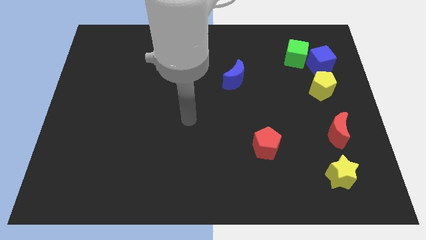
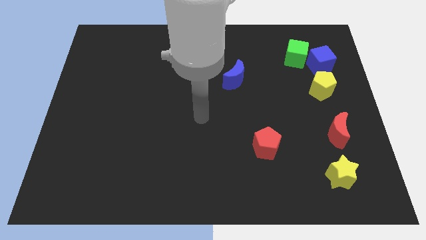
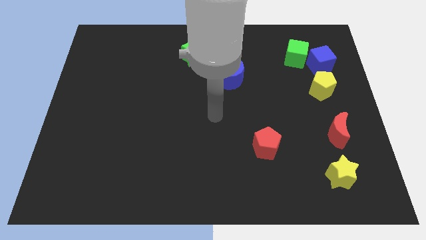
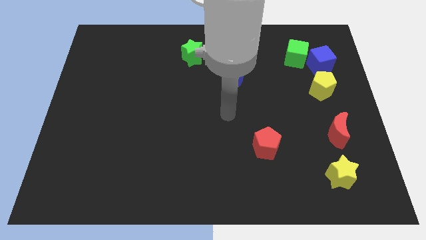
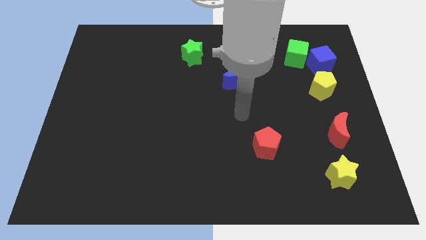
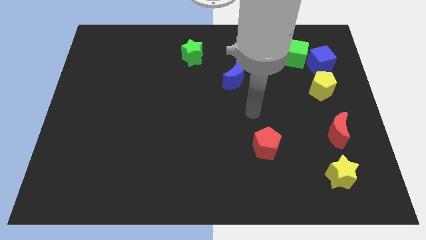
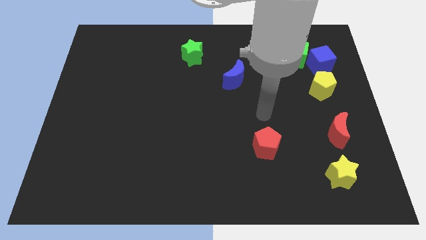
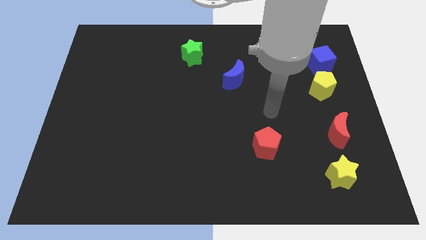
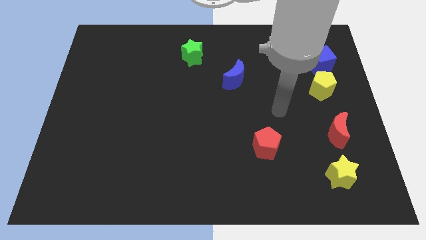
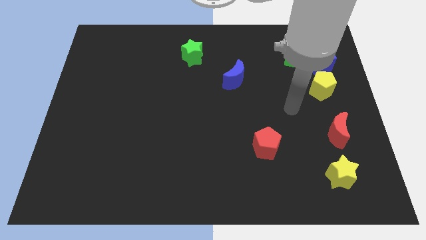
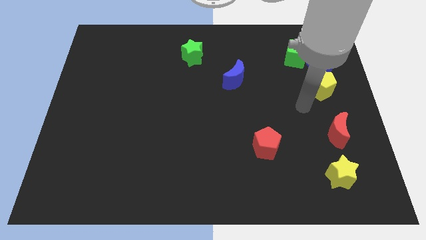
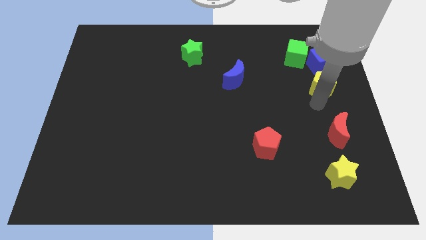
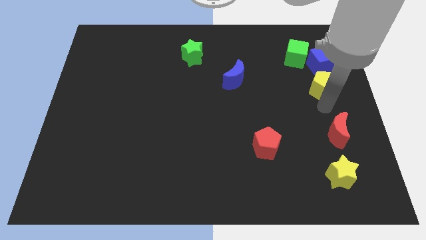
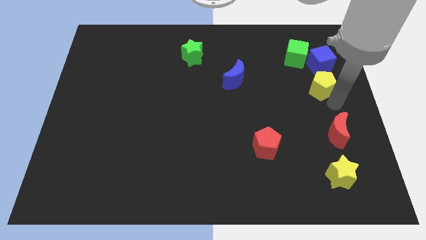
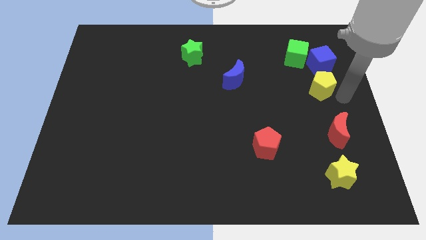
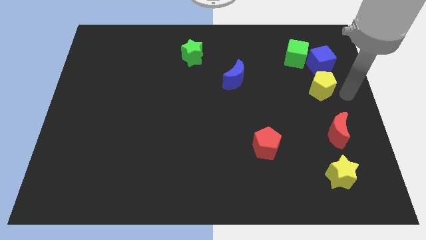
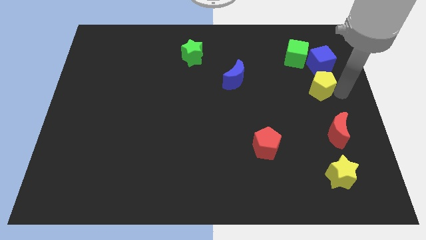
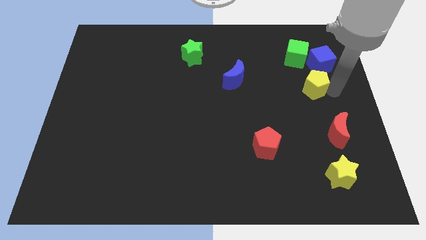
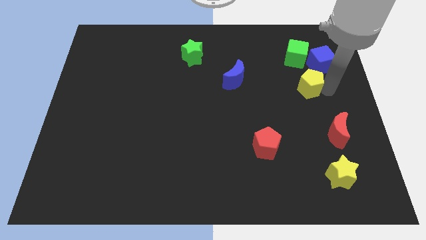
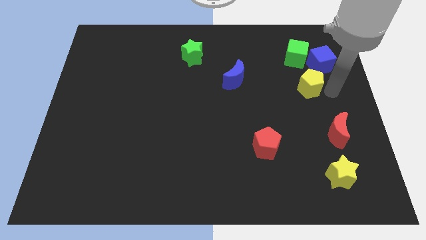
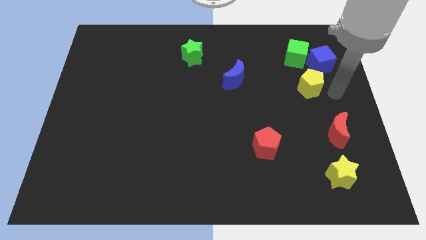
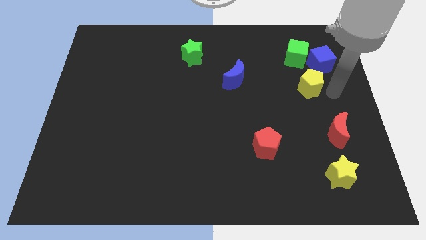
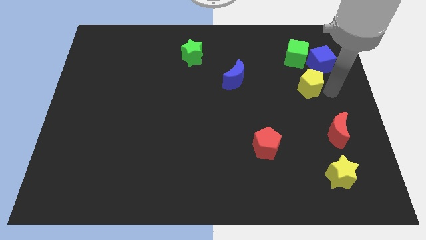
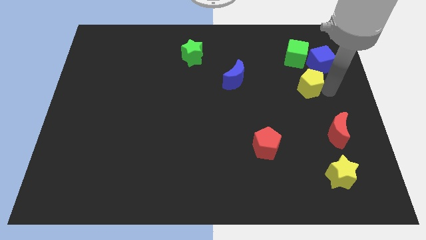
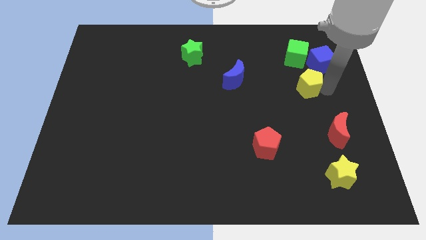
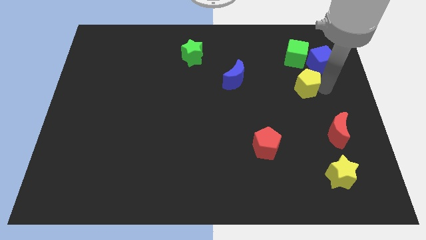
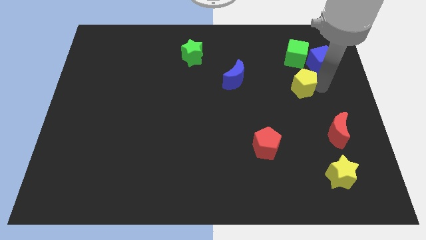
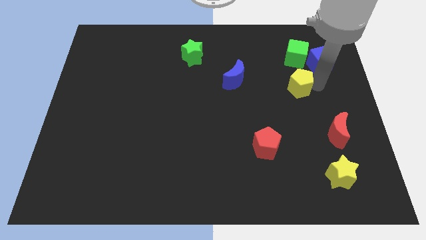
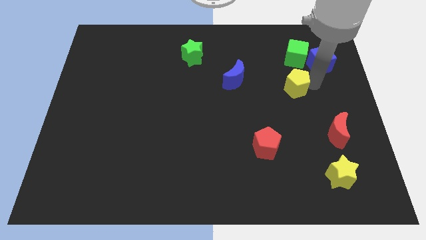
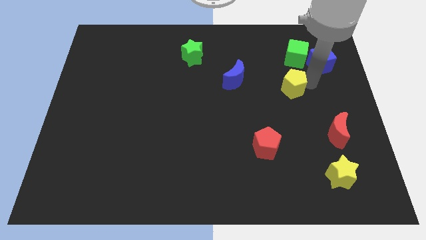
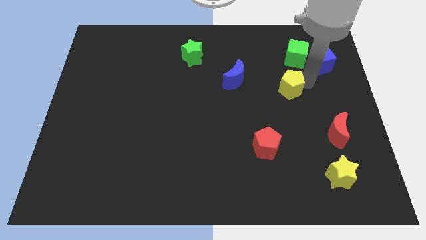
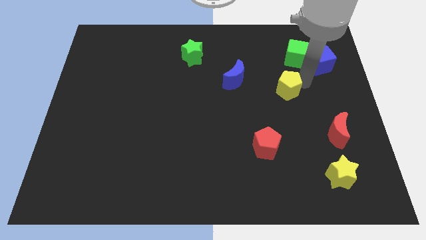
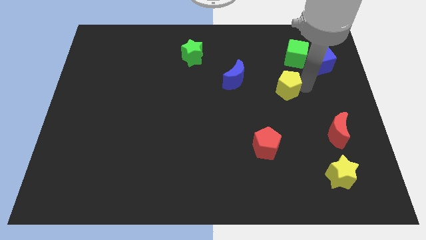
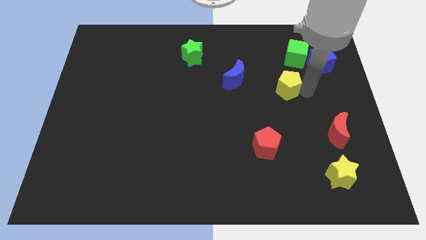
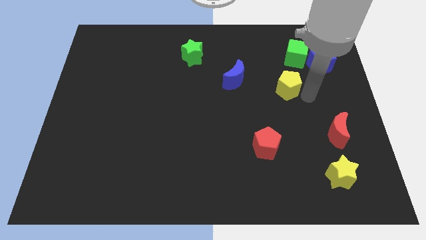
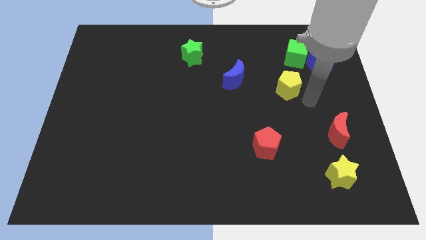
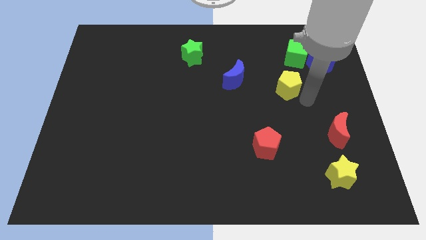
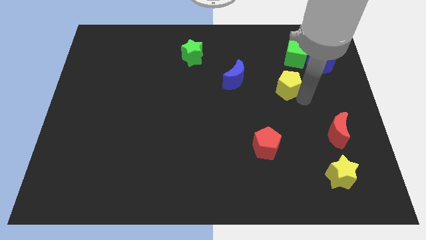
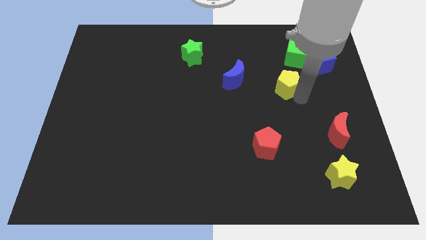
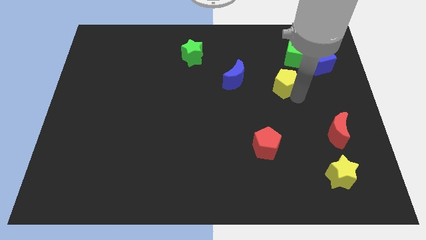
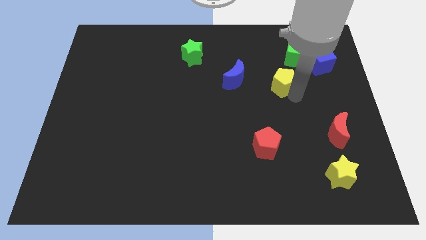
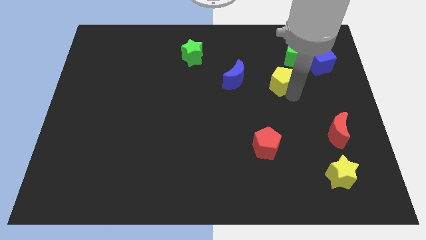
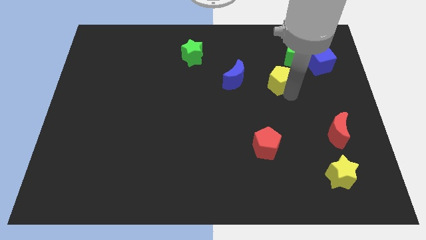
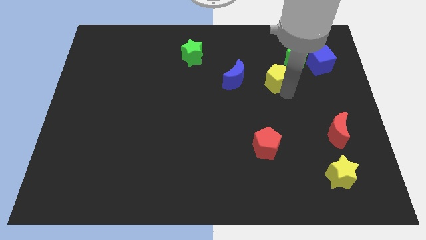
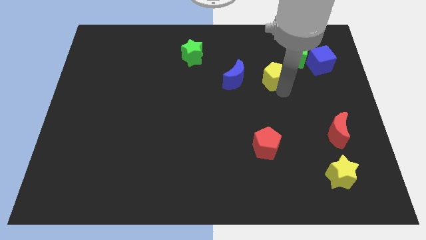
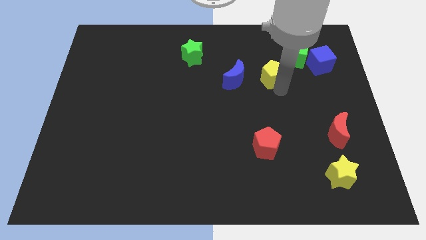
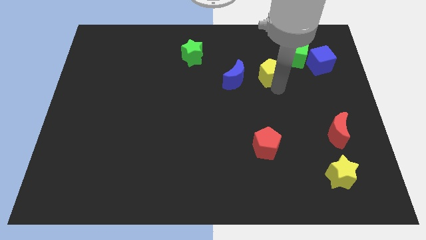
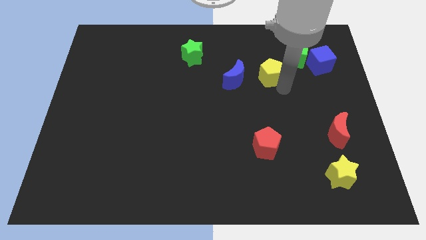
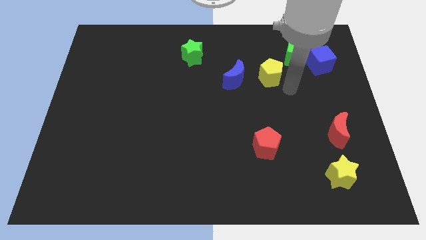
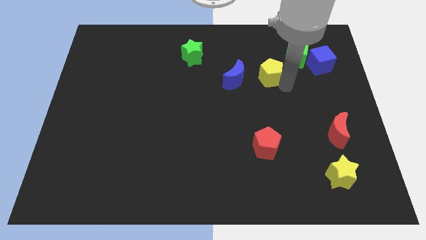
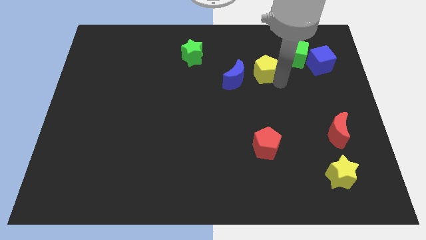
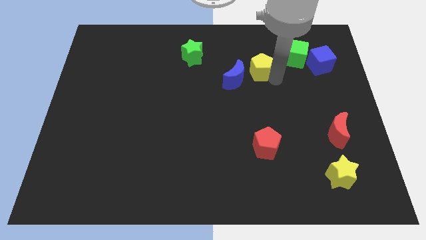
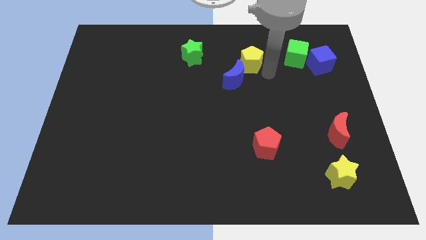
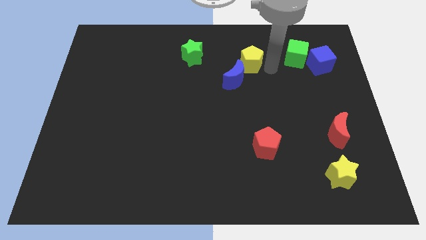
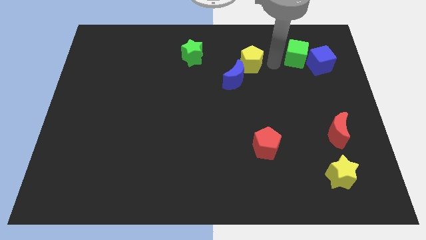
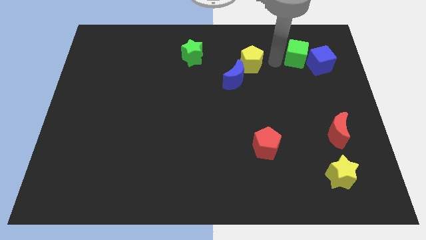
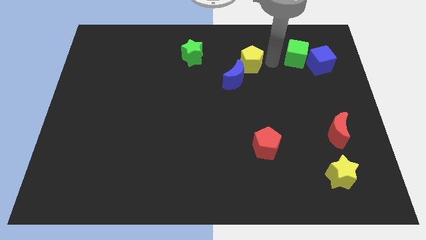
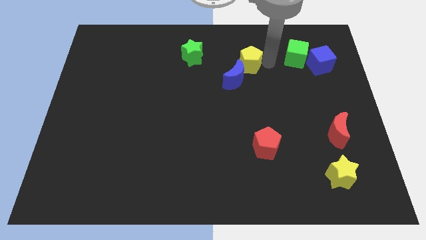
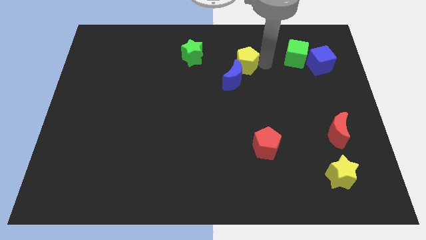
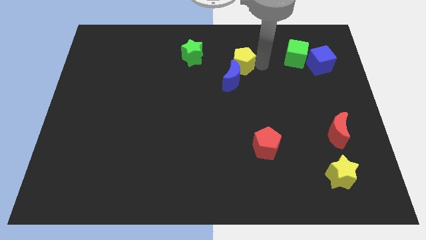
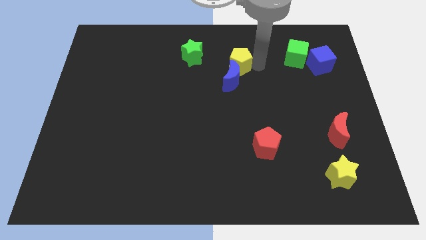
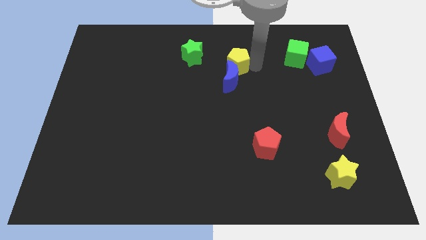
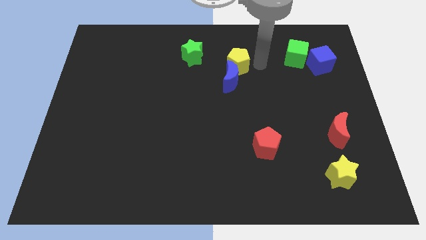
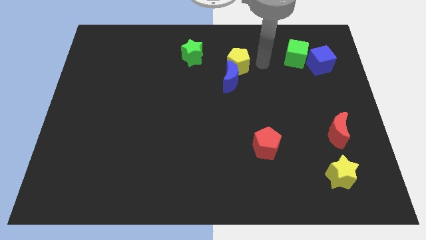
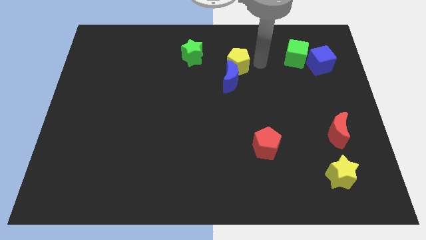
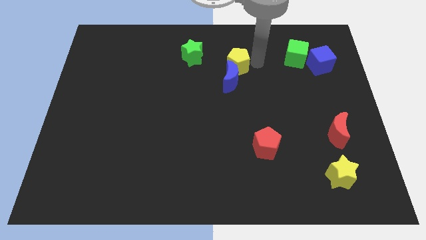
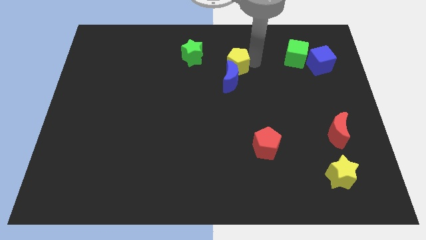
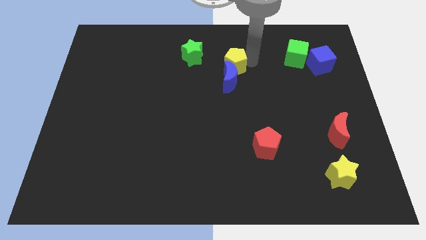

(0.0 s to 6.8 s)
push the yellow pentagon diagonally up and to the left of the blue moon
